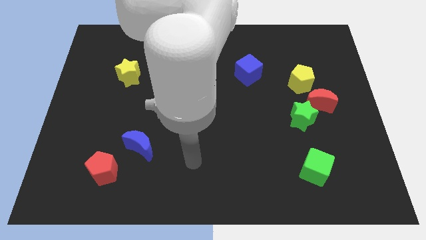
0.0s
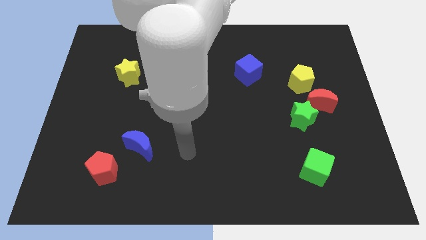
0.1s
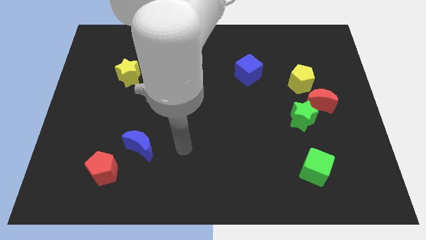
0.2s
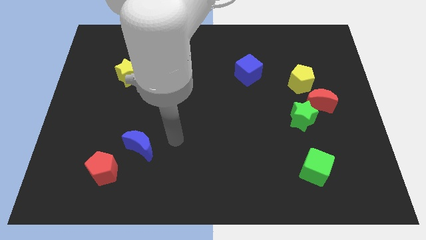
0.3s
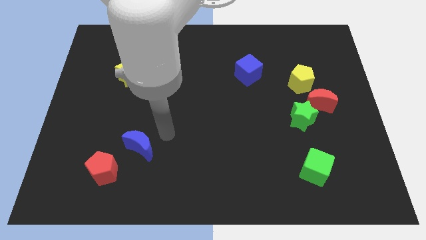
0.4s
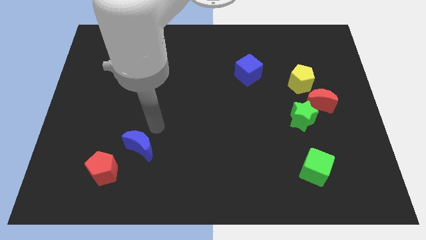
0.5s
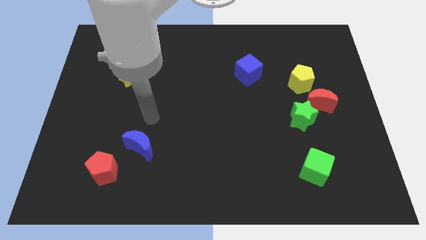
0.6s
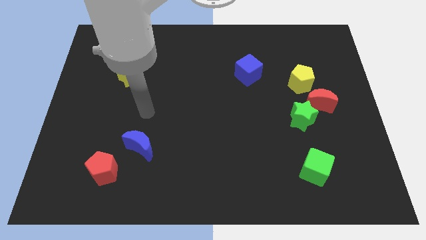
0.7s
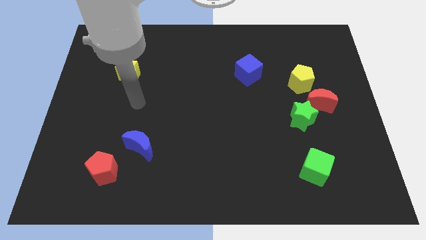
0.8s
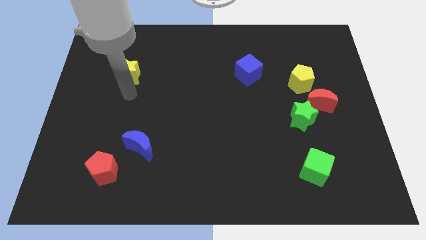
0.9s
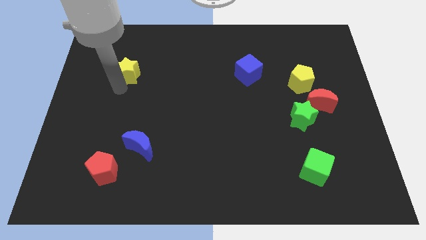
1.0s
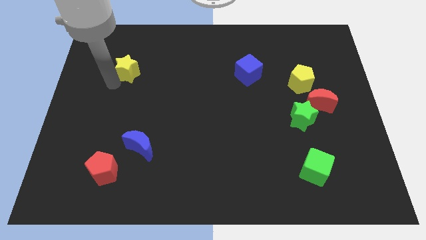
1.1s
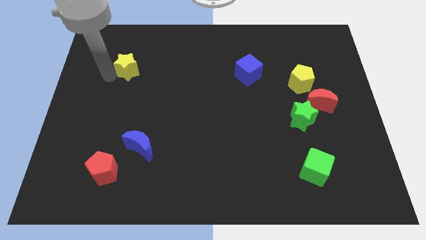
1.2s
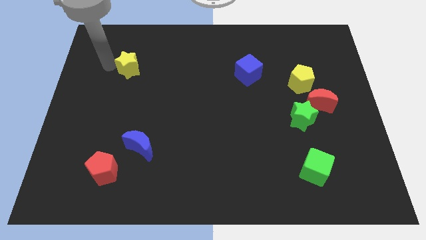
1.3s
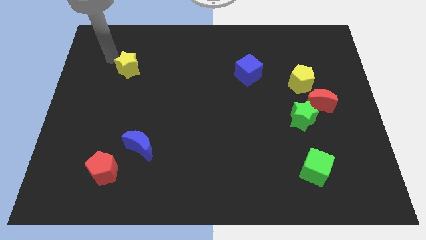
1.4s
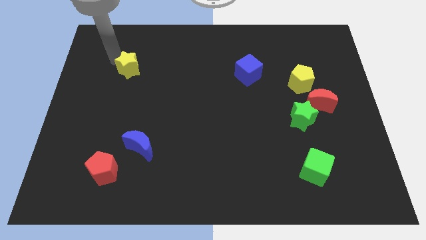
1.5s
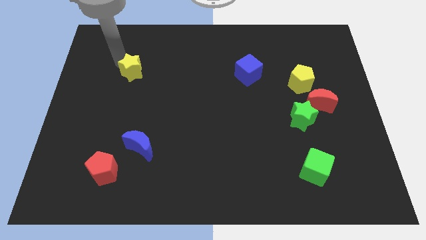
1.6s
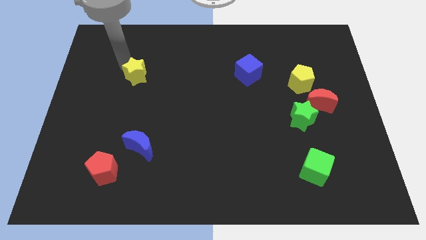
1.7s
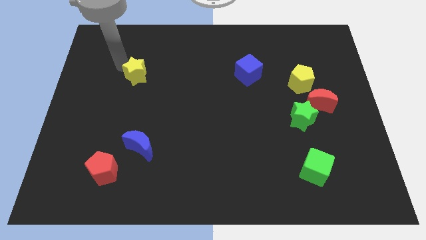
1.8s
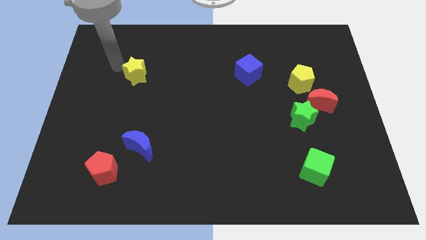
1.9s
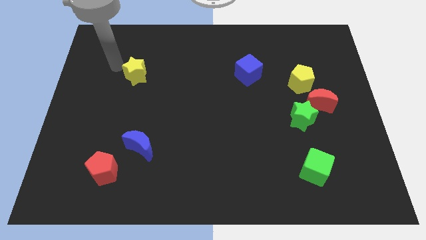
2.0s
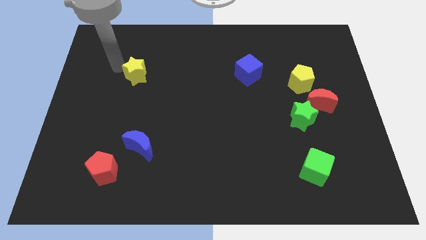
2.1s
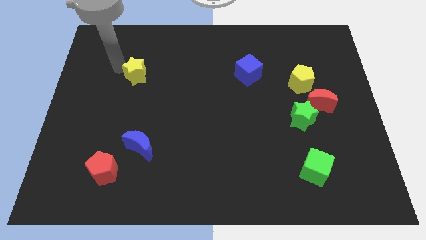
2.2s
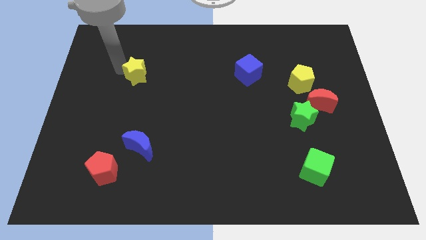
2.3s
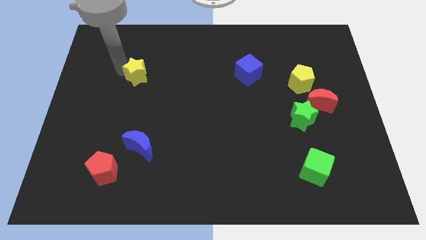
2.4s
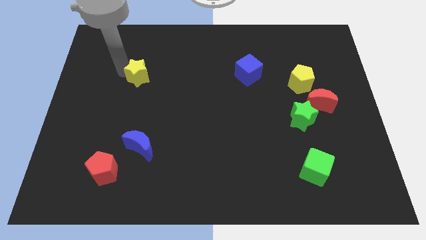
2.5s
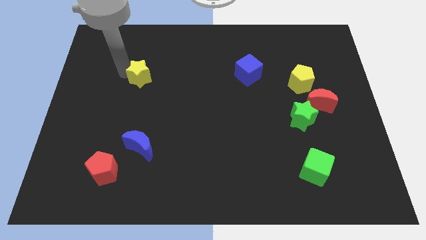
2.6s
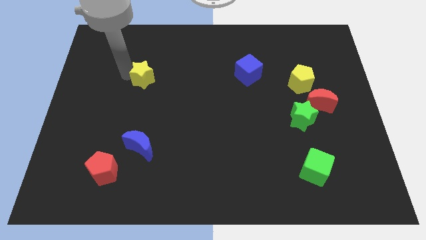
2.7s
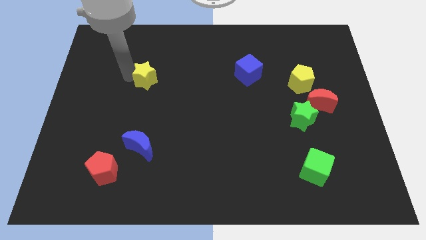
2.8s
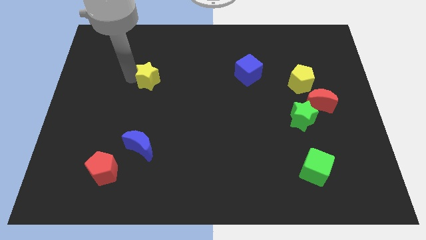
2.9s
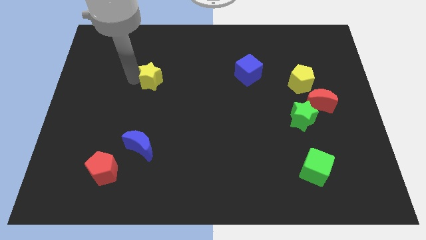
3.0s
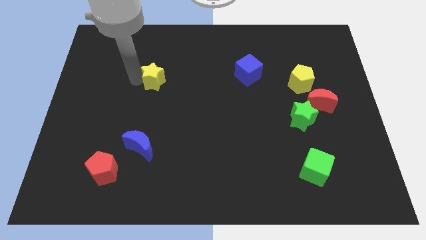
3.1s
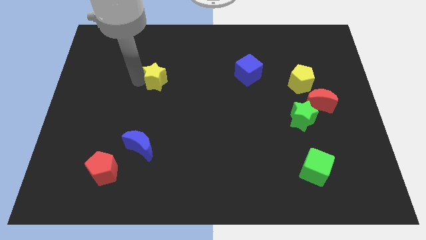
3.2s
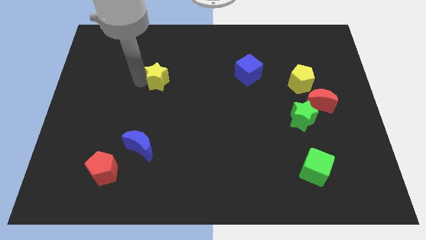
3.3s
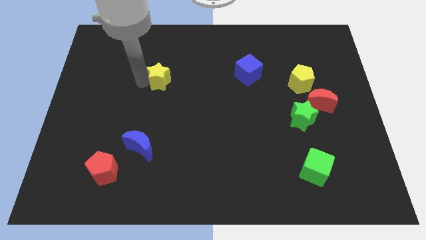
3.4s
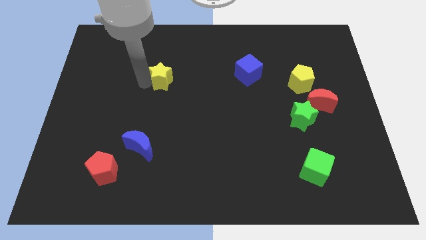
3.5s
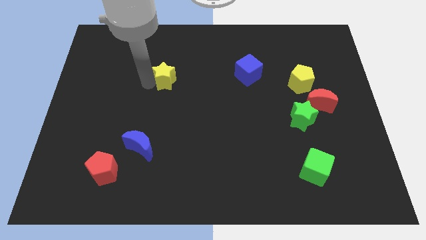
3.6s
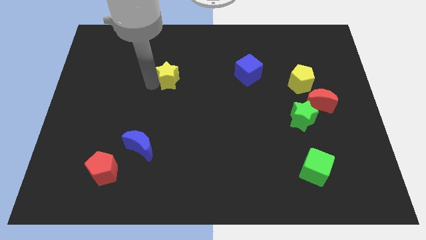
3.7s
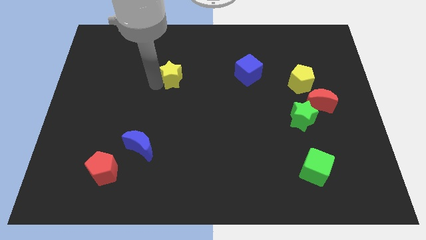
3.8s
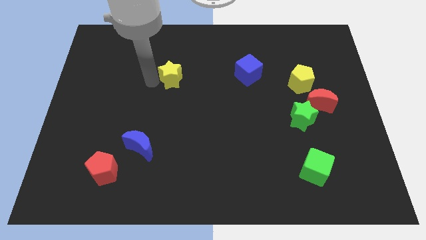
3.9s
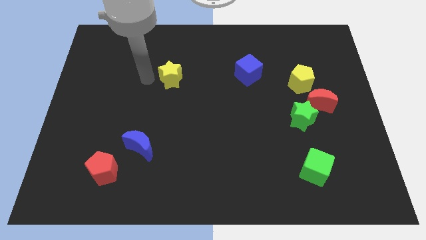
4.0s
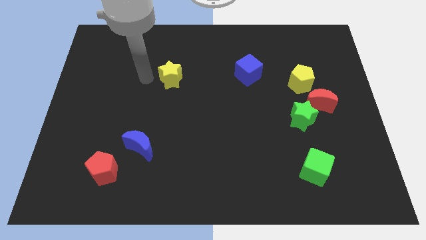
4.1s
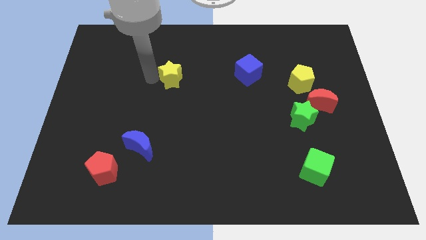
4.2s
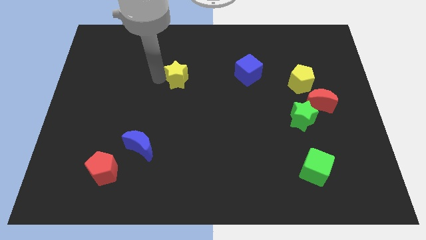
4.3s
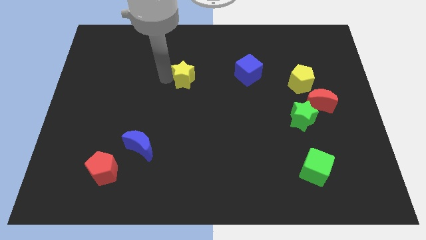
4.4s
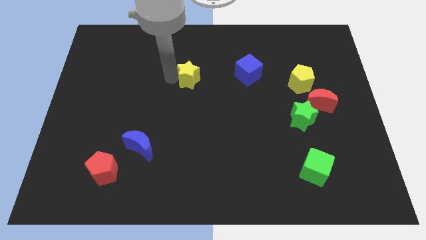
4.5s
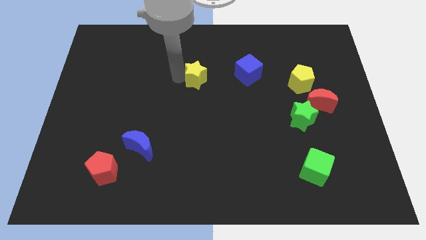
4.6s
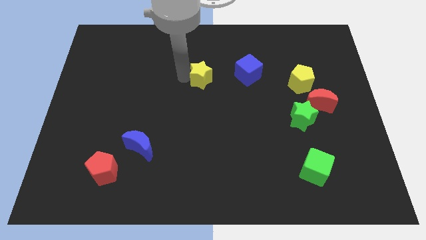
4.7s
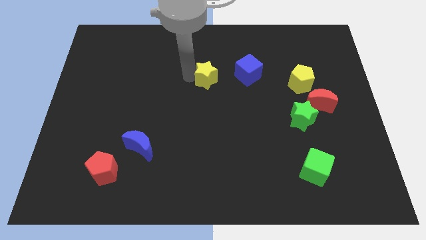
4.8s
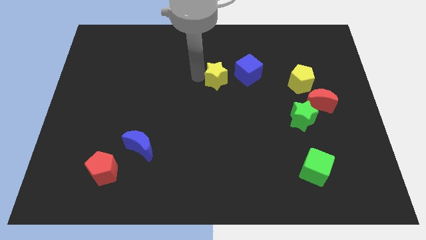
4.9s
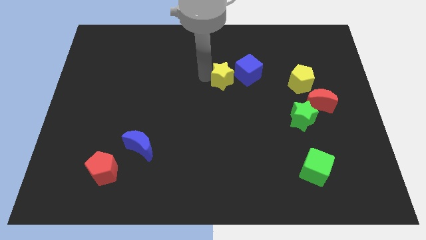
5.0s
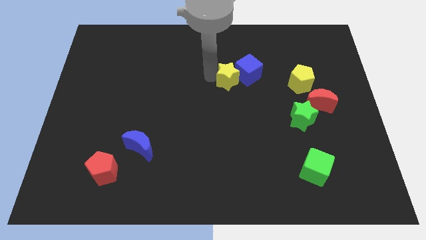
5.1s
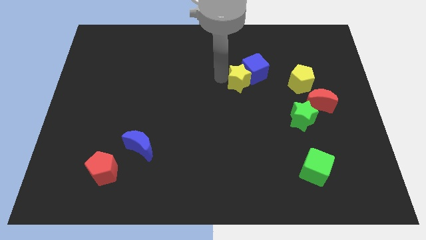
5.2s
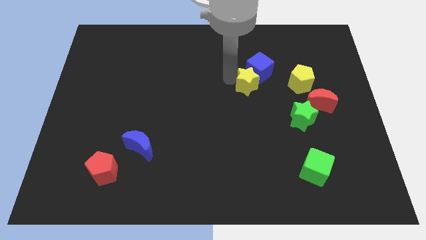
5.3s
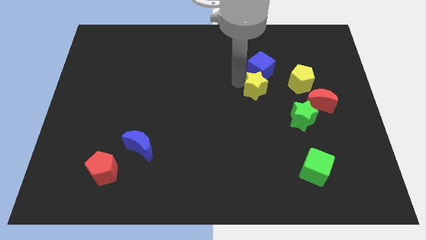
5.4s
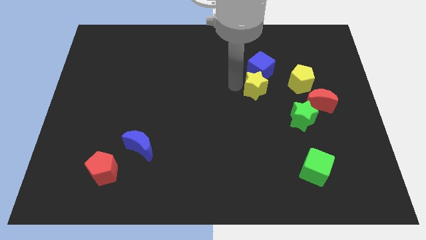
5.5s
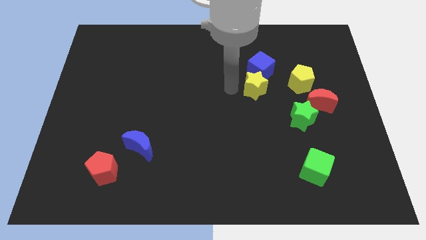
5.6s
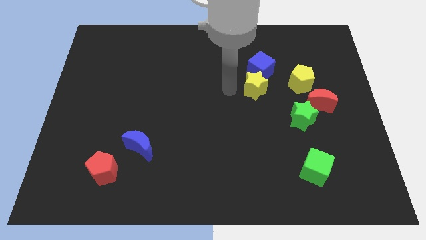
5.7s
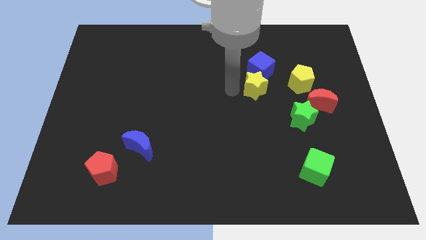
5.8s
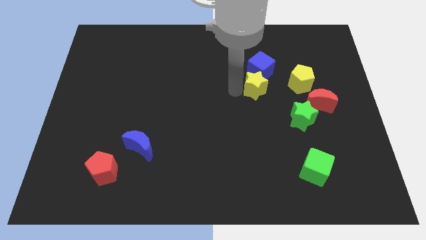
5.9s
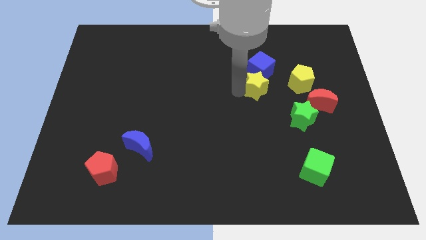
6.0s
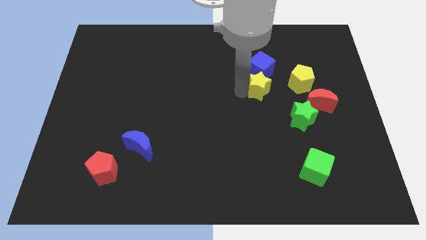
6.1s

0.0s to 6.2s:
slide the yellow star to the bottom right of the blue cube
